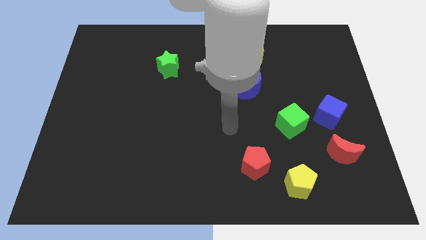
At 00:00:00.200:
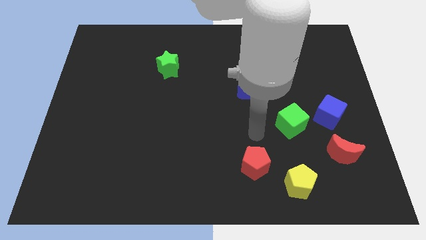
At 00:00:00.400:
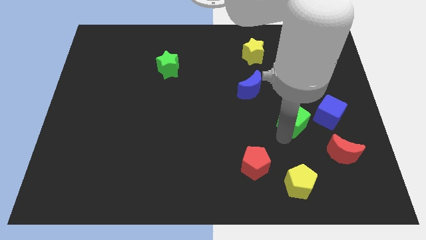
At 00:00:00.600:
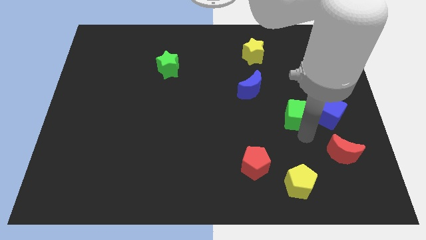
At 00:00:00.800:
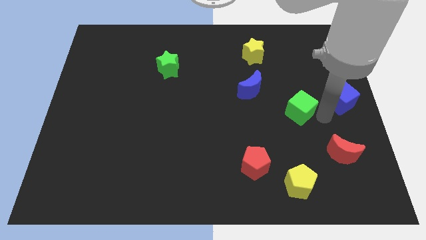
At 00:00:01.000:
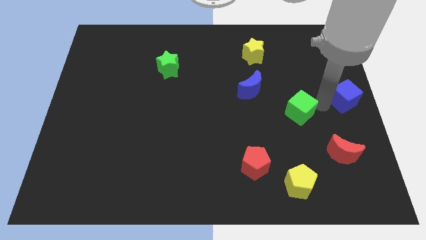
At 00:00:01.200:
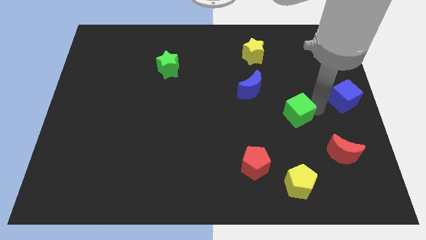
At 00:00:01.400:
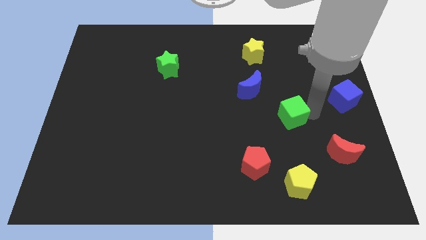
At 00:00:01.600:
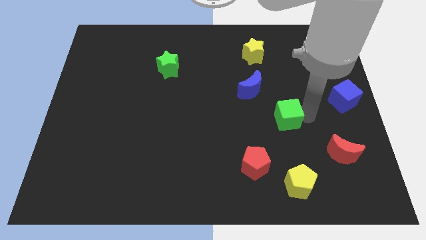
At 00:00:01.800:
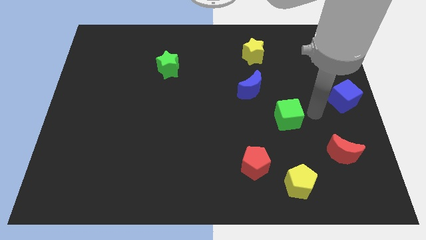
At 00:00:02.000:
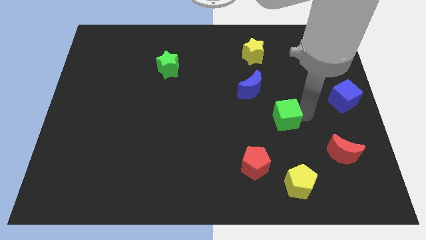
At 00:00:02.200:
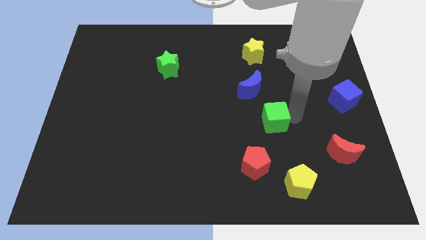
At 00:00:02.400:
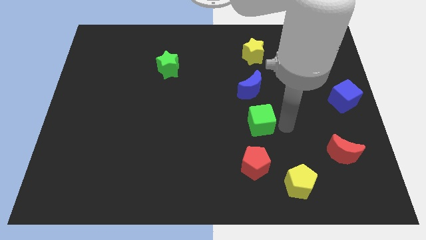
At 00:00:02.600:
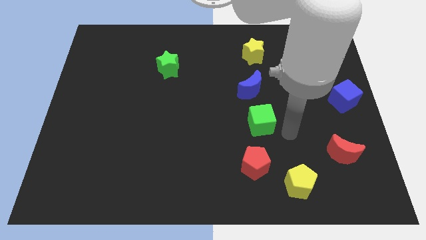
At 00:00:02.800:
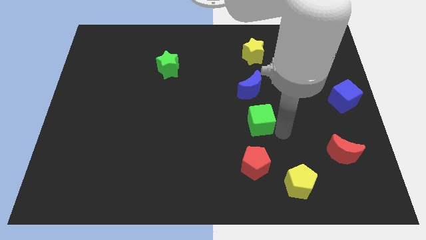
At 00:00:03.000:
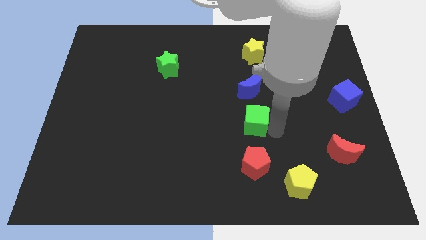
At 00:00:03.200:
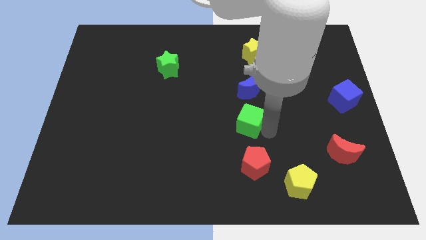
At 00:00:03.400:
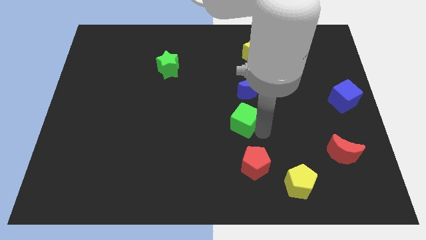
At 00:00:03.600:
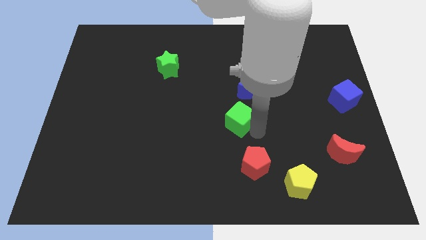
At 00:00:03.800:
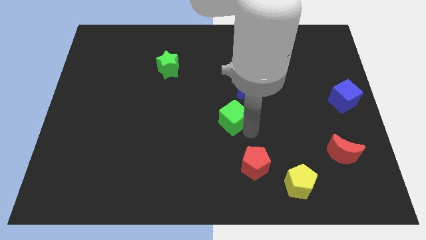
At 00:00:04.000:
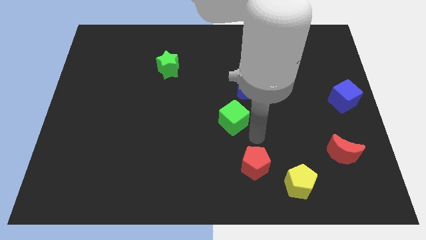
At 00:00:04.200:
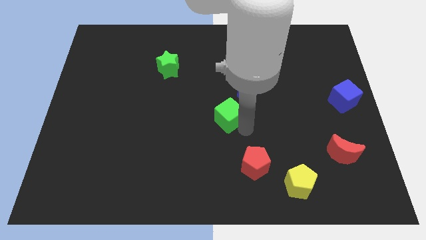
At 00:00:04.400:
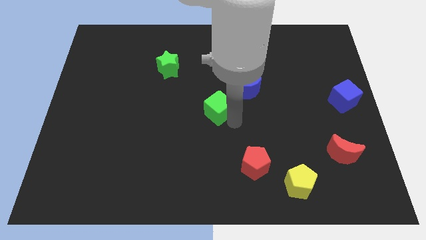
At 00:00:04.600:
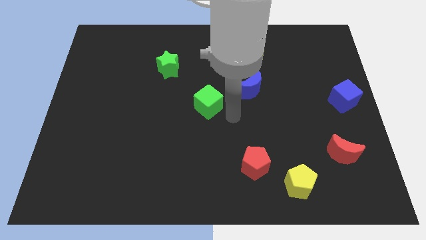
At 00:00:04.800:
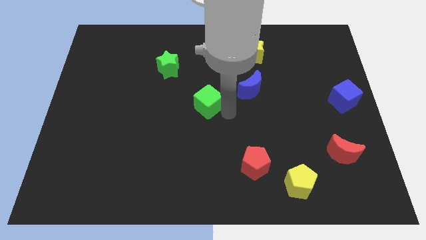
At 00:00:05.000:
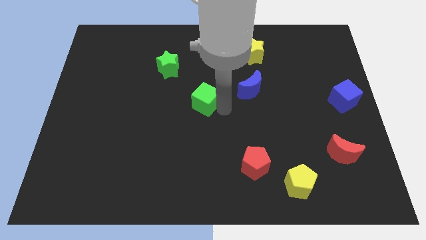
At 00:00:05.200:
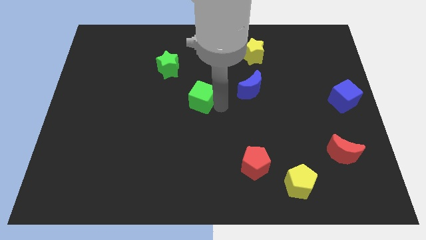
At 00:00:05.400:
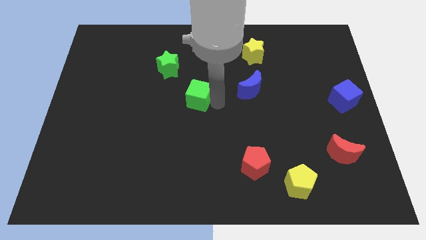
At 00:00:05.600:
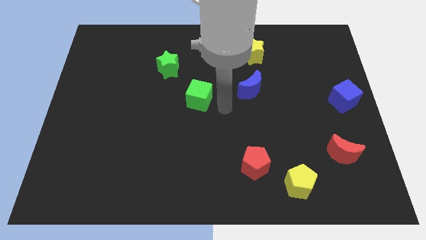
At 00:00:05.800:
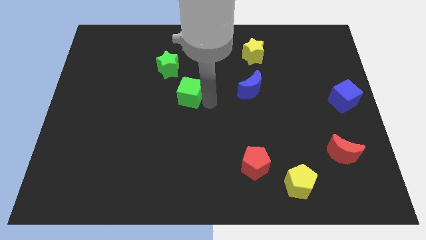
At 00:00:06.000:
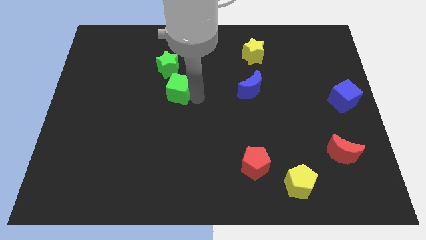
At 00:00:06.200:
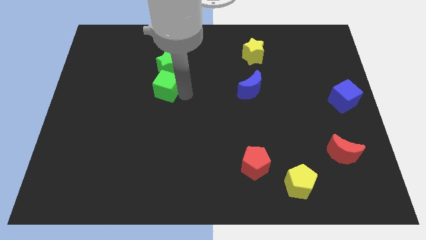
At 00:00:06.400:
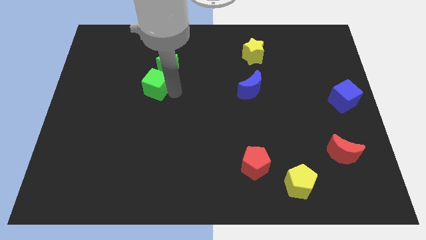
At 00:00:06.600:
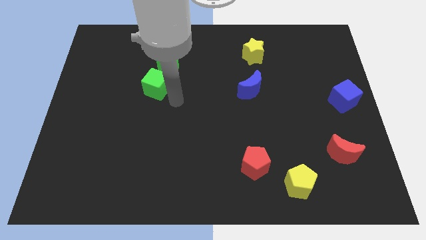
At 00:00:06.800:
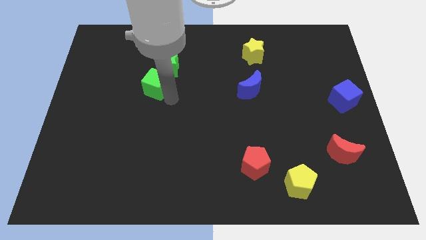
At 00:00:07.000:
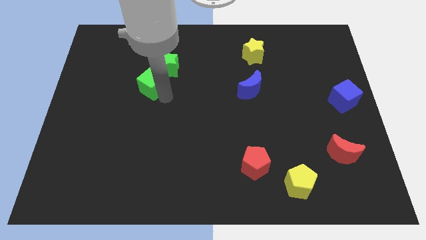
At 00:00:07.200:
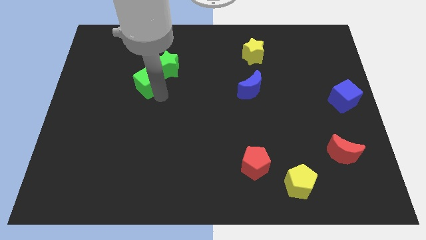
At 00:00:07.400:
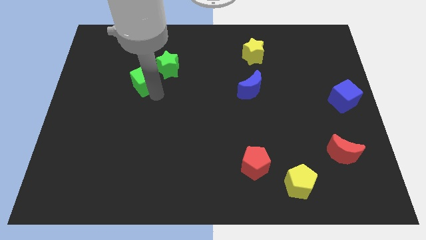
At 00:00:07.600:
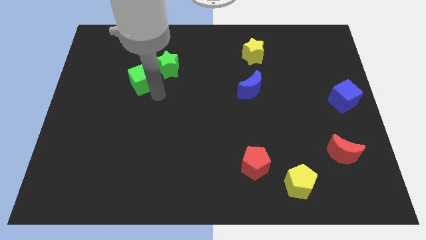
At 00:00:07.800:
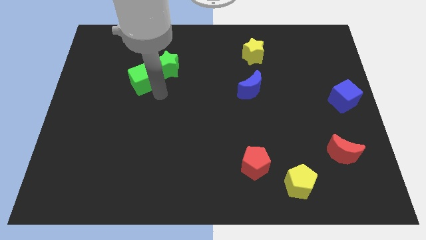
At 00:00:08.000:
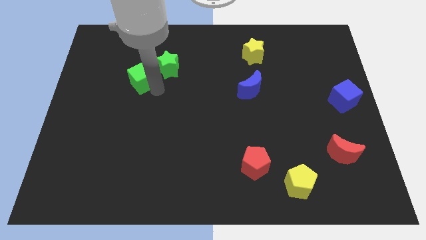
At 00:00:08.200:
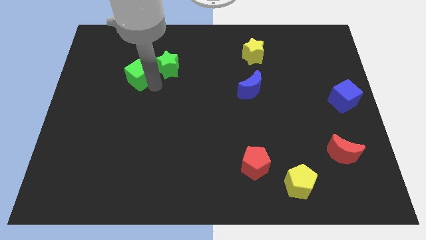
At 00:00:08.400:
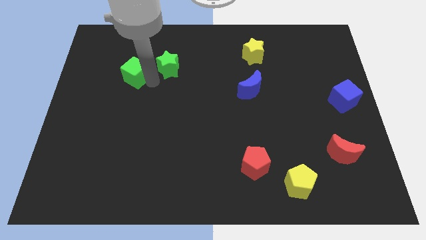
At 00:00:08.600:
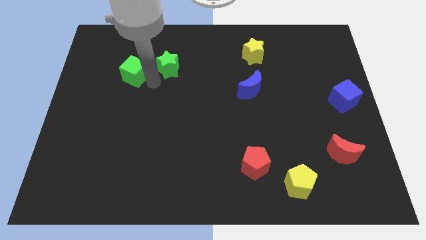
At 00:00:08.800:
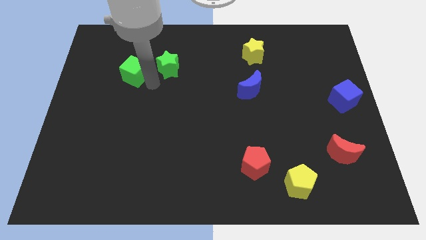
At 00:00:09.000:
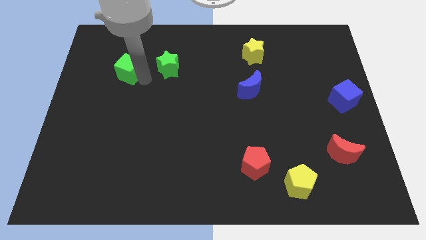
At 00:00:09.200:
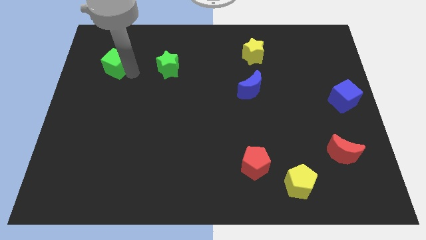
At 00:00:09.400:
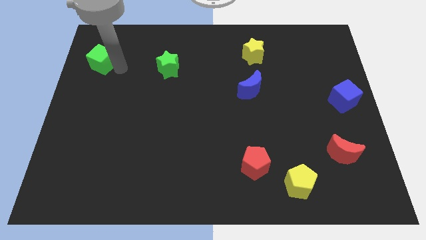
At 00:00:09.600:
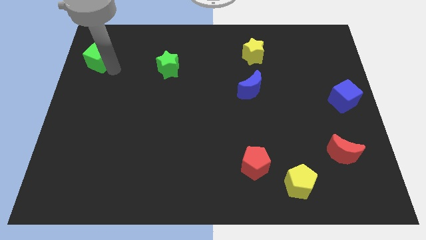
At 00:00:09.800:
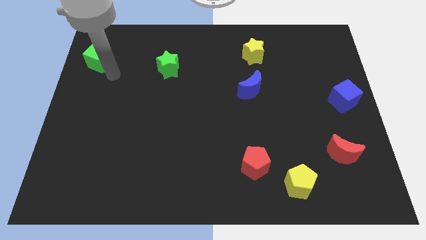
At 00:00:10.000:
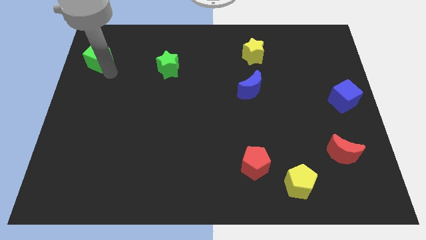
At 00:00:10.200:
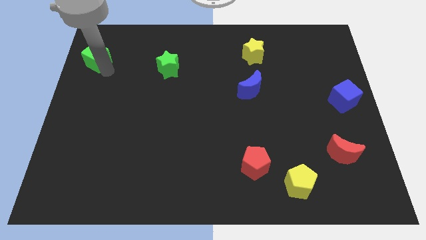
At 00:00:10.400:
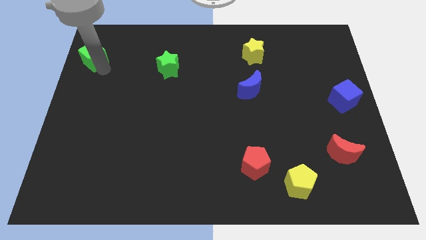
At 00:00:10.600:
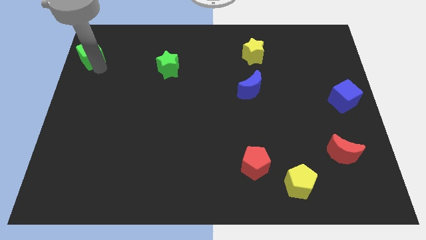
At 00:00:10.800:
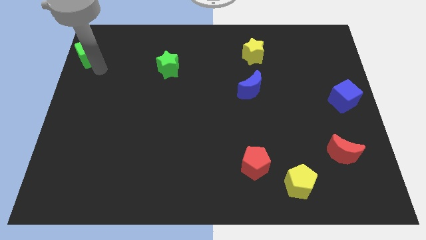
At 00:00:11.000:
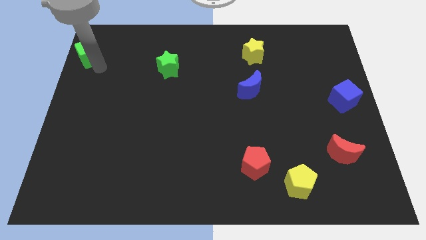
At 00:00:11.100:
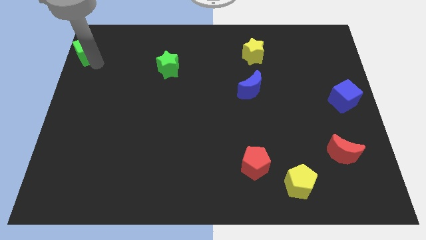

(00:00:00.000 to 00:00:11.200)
put the green cube to the upper left corner
